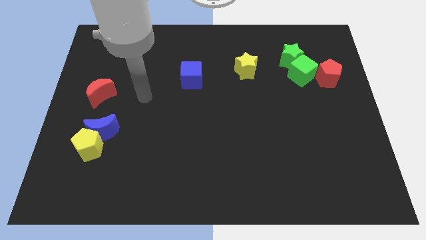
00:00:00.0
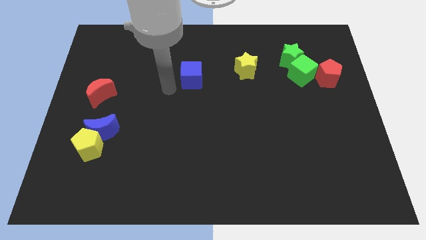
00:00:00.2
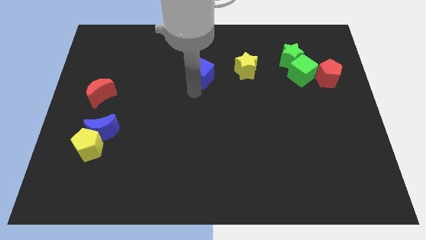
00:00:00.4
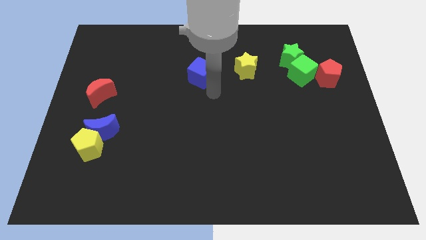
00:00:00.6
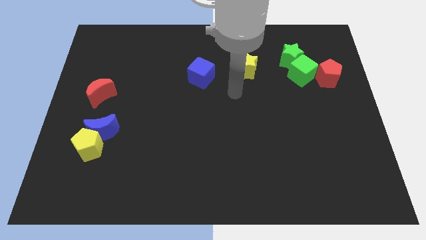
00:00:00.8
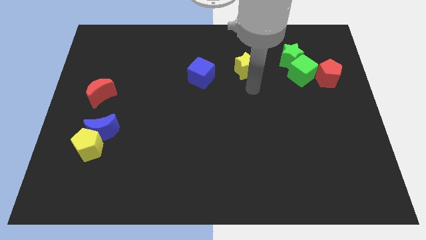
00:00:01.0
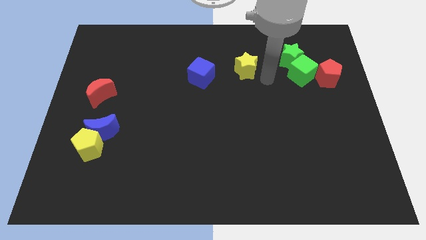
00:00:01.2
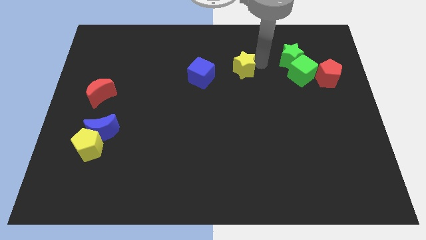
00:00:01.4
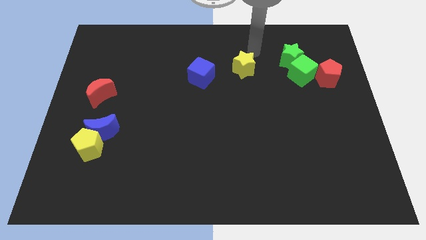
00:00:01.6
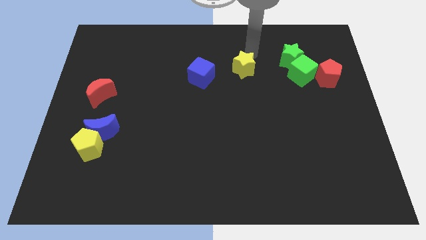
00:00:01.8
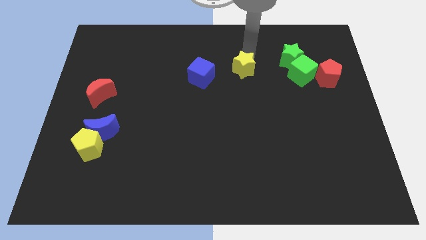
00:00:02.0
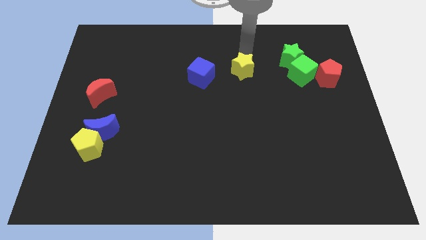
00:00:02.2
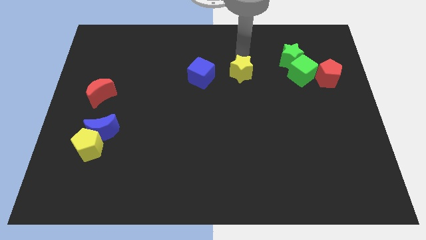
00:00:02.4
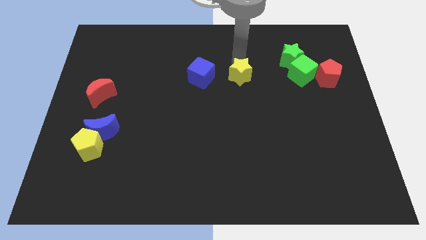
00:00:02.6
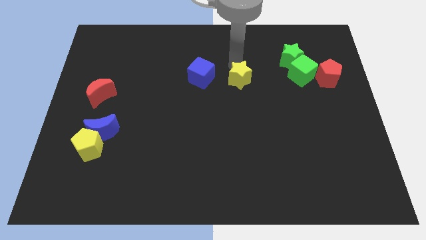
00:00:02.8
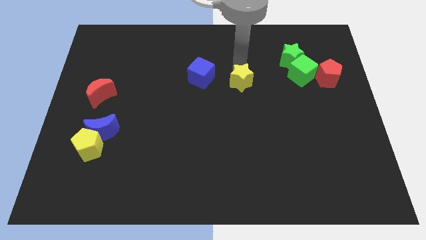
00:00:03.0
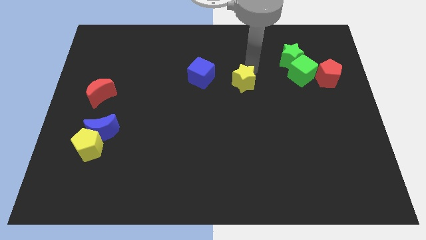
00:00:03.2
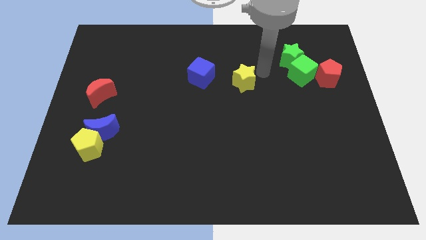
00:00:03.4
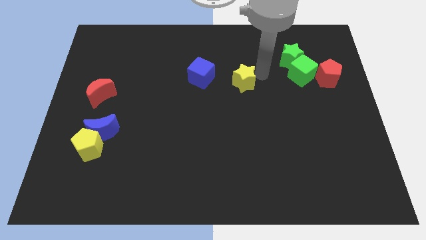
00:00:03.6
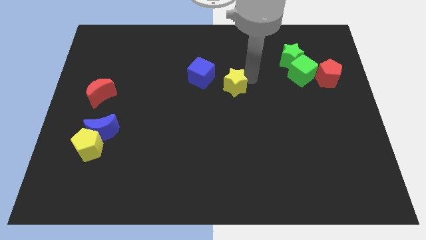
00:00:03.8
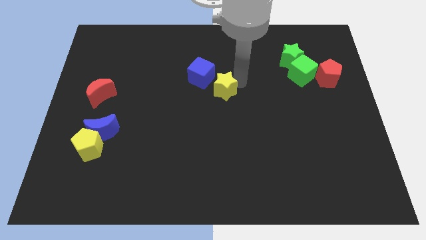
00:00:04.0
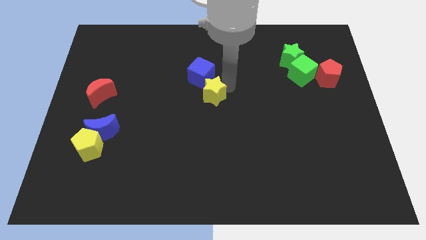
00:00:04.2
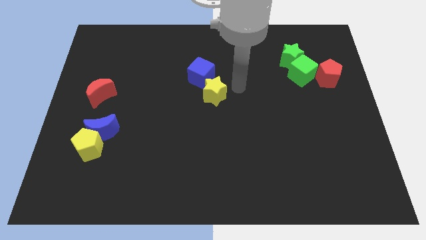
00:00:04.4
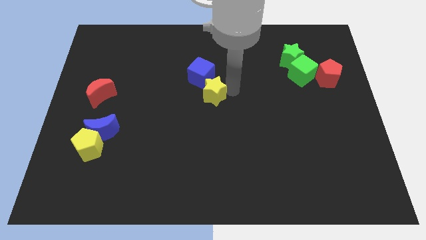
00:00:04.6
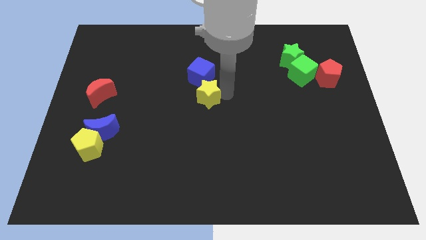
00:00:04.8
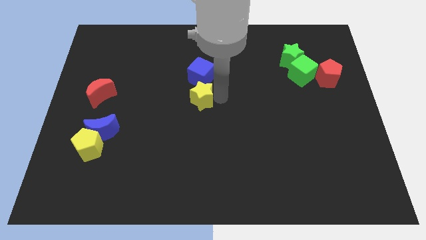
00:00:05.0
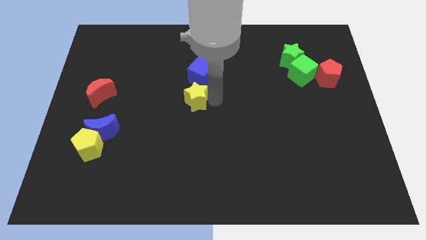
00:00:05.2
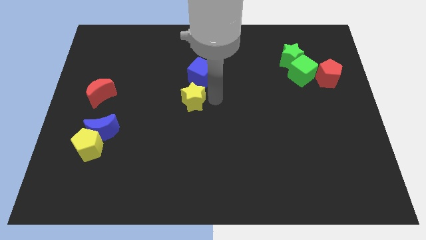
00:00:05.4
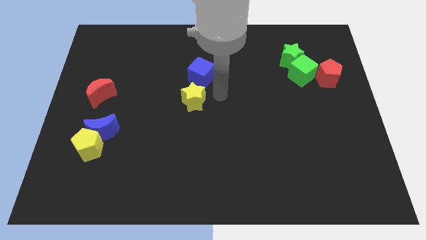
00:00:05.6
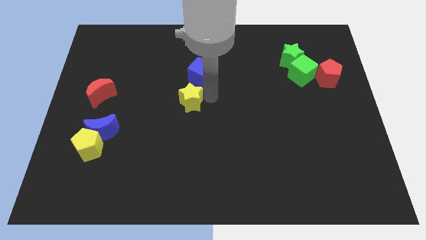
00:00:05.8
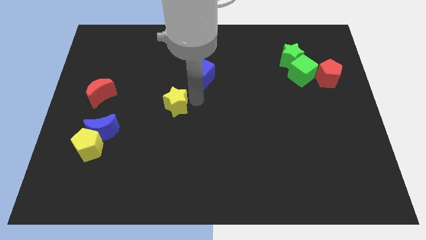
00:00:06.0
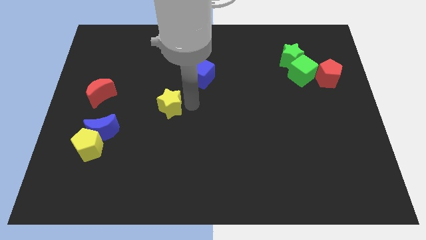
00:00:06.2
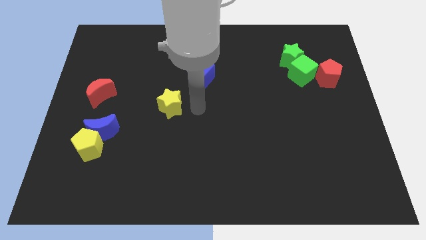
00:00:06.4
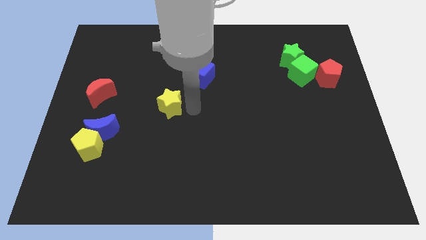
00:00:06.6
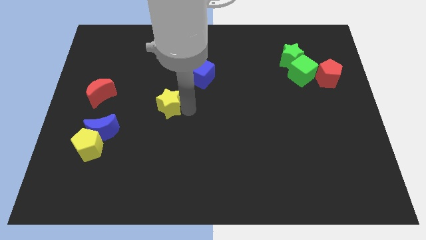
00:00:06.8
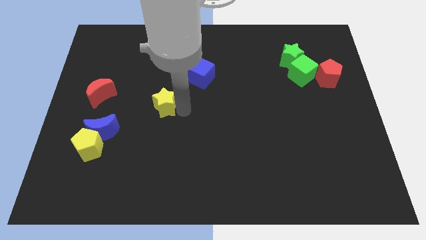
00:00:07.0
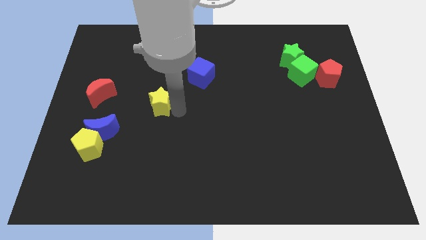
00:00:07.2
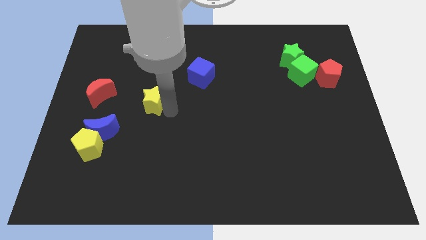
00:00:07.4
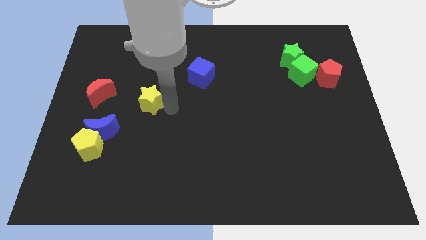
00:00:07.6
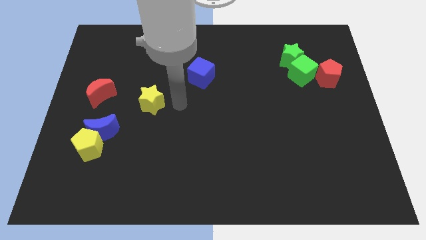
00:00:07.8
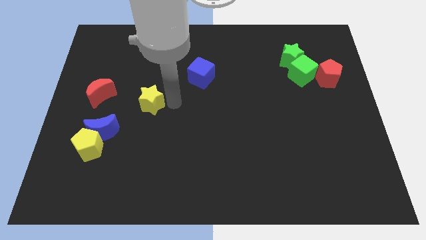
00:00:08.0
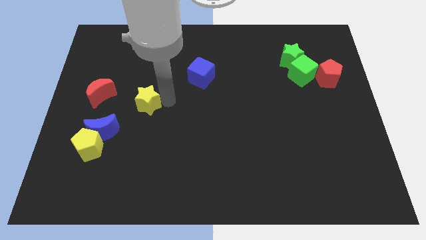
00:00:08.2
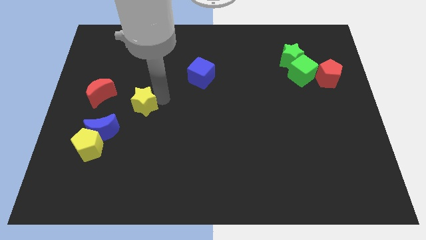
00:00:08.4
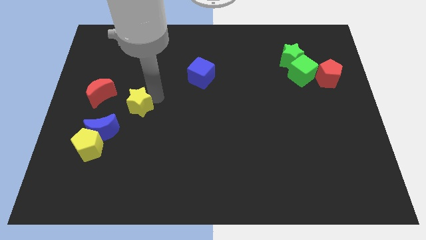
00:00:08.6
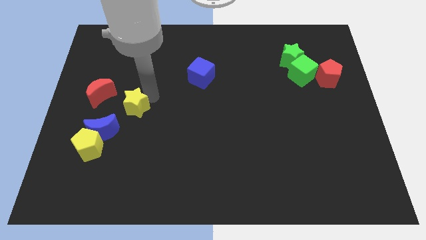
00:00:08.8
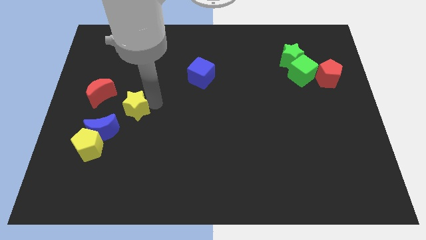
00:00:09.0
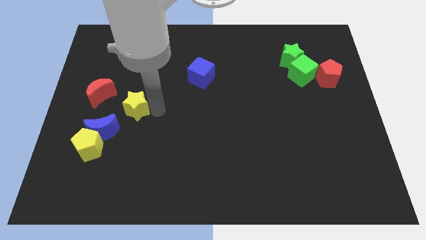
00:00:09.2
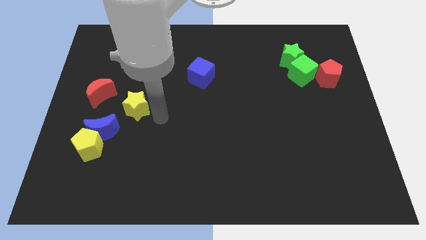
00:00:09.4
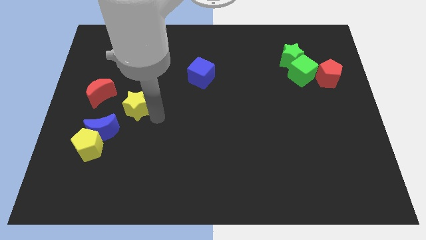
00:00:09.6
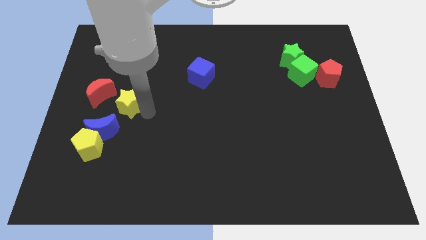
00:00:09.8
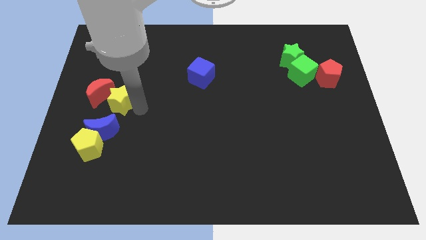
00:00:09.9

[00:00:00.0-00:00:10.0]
put the yellow star to the red moon

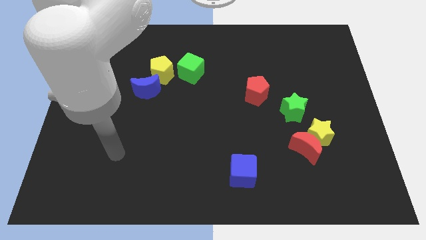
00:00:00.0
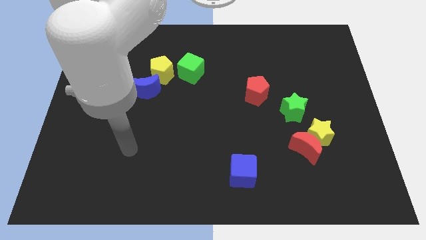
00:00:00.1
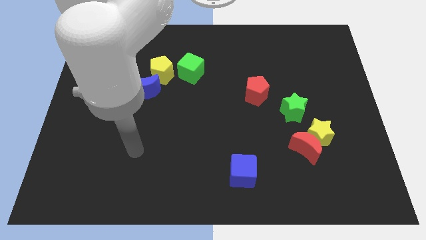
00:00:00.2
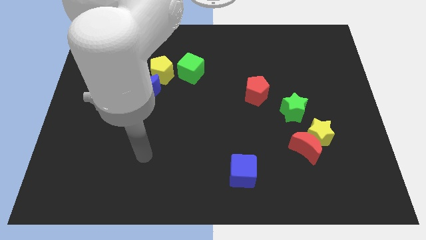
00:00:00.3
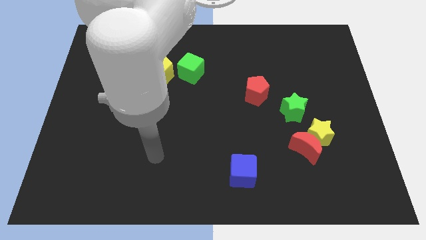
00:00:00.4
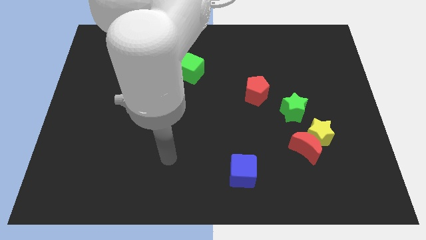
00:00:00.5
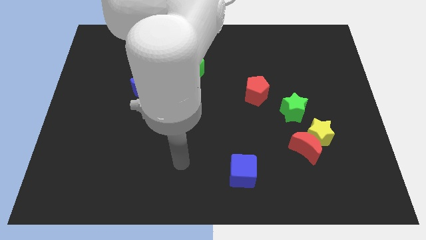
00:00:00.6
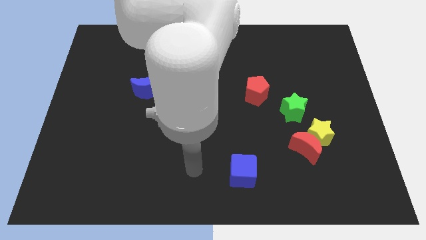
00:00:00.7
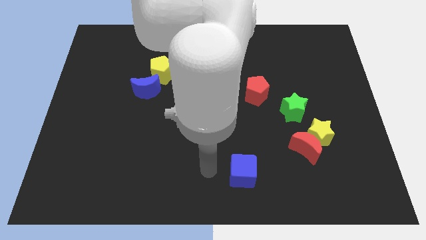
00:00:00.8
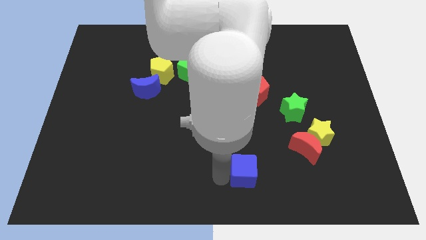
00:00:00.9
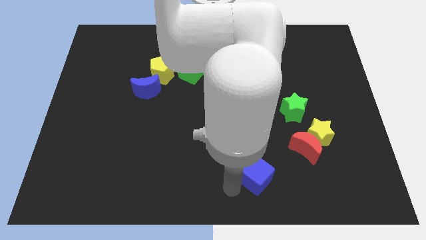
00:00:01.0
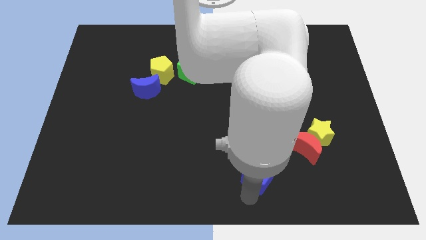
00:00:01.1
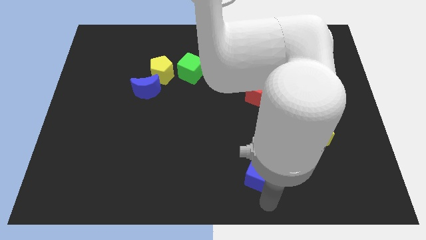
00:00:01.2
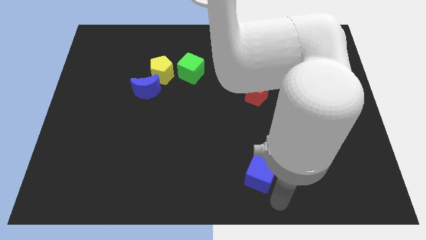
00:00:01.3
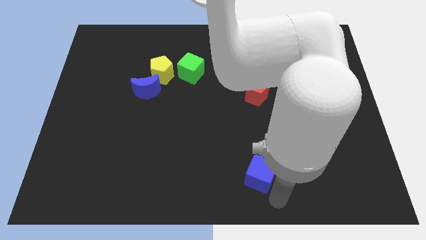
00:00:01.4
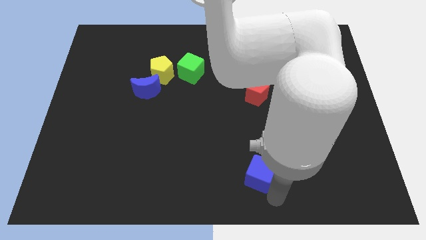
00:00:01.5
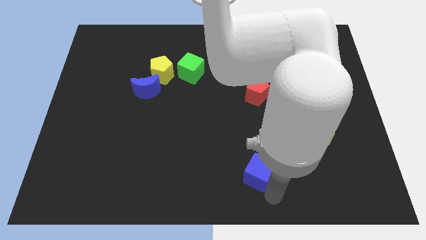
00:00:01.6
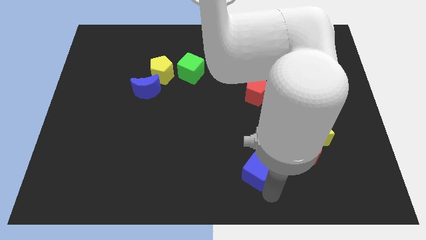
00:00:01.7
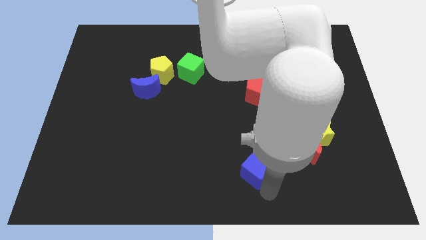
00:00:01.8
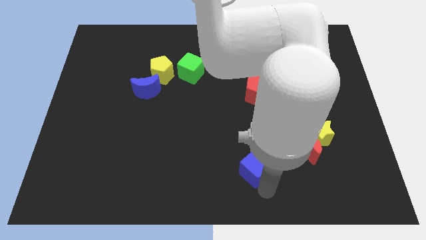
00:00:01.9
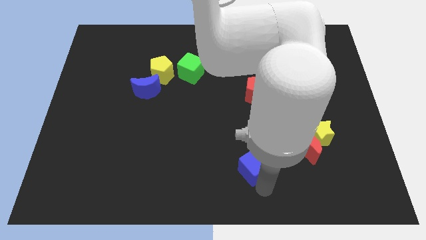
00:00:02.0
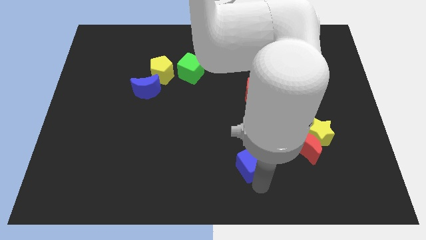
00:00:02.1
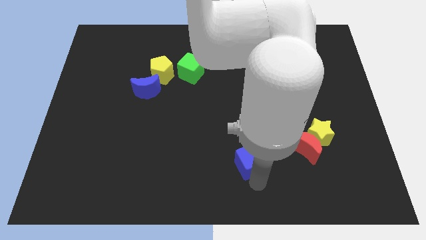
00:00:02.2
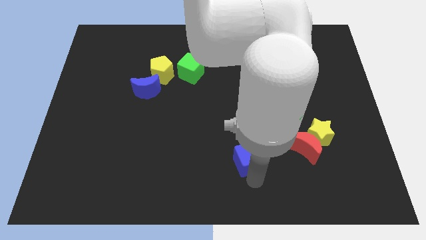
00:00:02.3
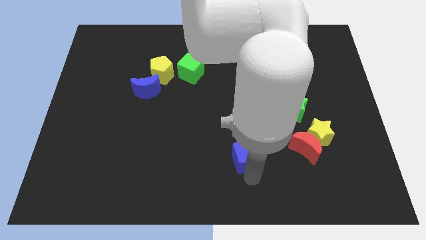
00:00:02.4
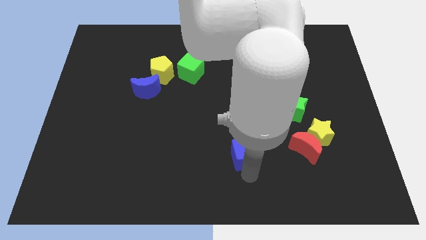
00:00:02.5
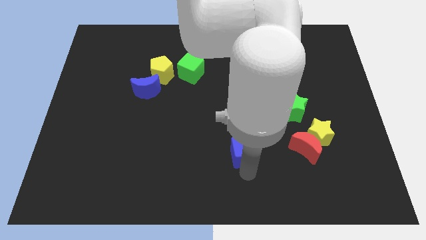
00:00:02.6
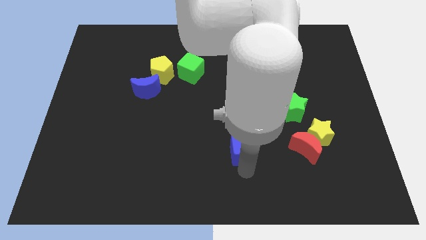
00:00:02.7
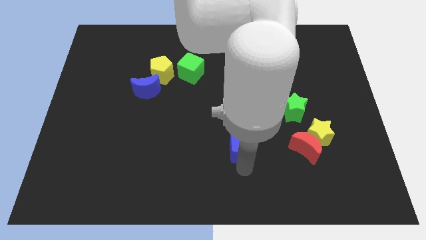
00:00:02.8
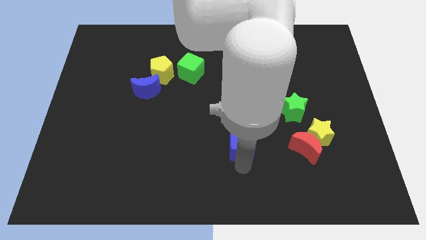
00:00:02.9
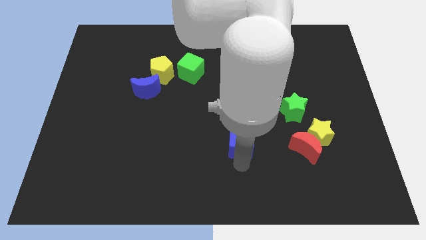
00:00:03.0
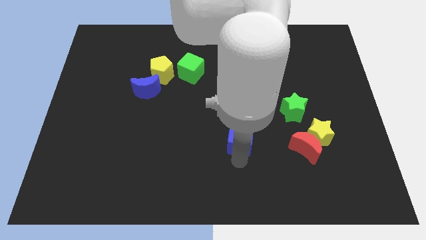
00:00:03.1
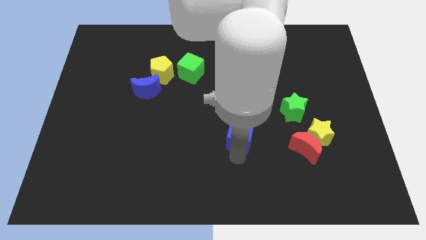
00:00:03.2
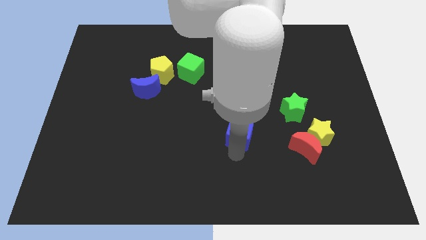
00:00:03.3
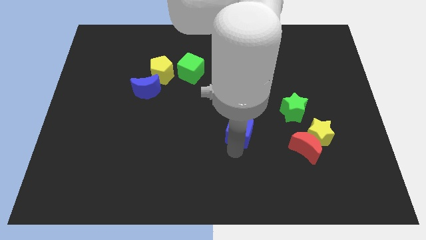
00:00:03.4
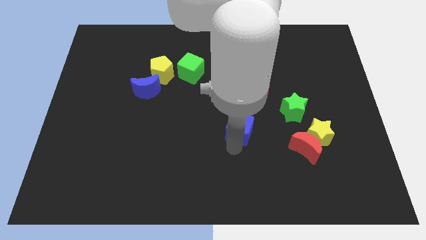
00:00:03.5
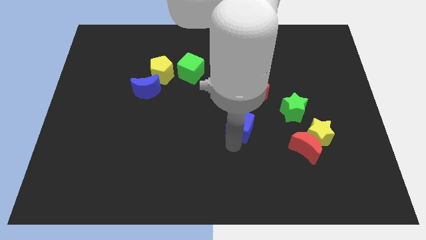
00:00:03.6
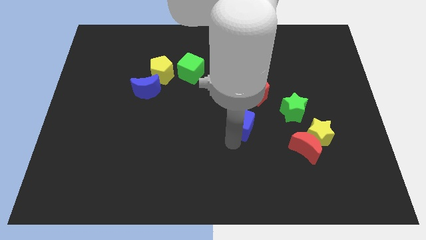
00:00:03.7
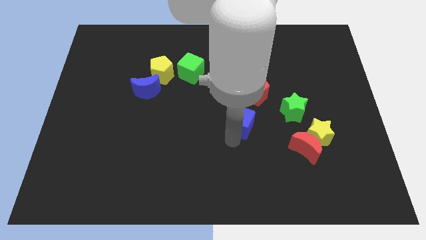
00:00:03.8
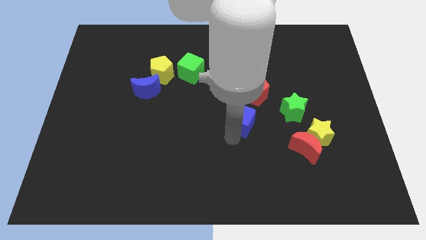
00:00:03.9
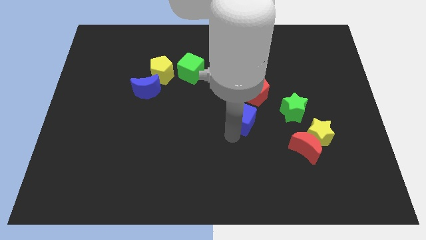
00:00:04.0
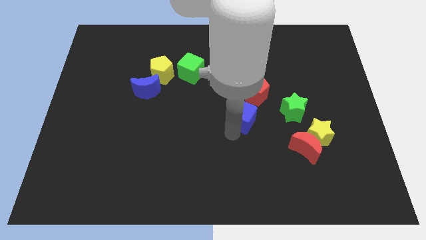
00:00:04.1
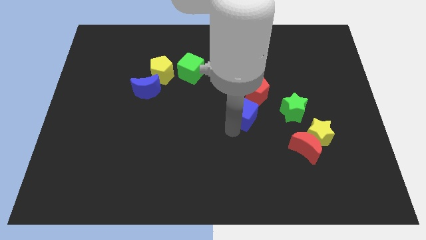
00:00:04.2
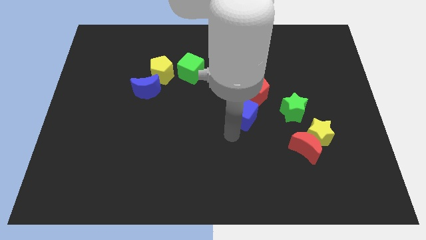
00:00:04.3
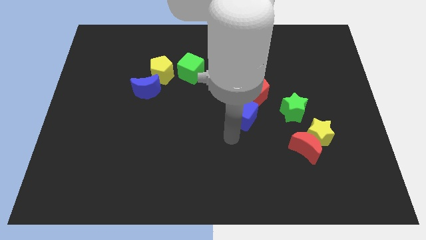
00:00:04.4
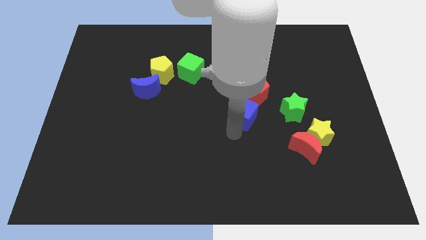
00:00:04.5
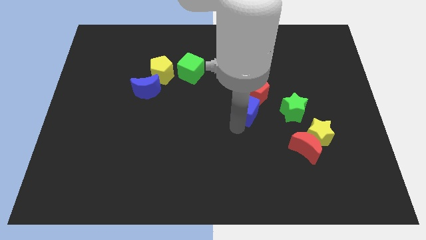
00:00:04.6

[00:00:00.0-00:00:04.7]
slide the blue cube towards the red pentagon
